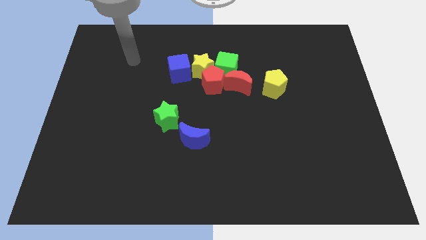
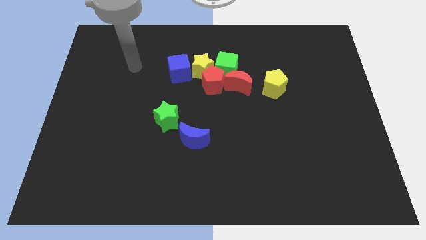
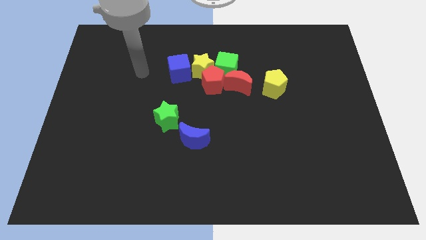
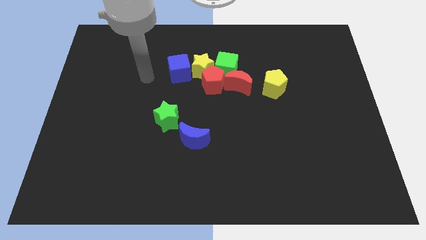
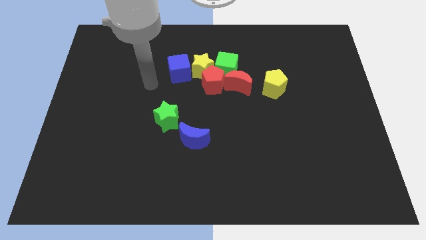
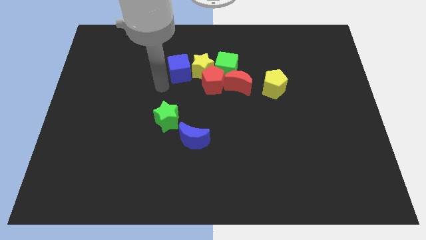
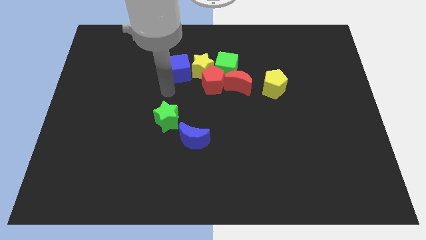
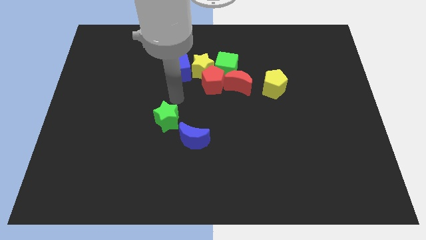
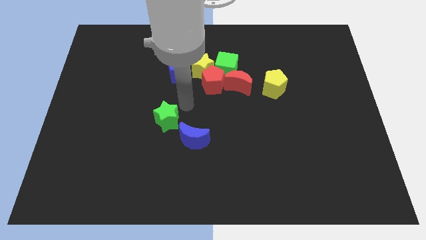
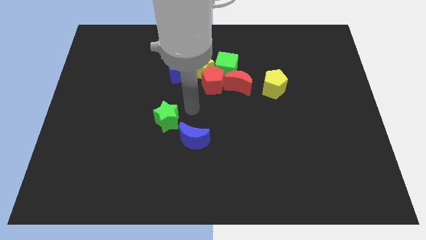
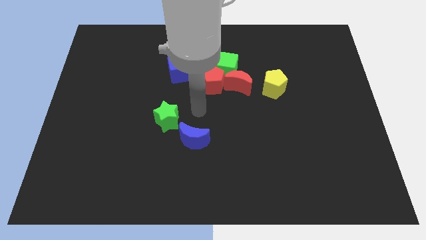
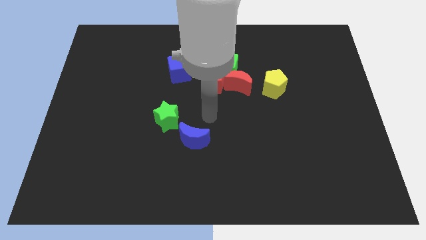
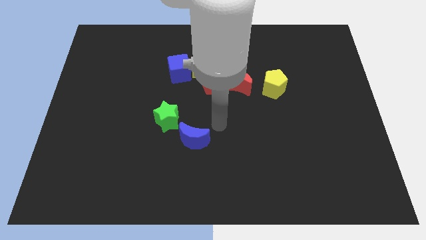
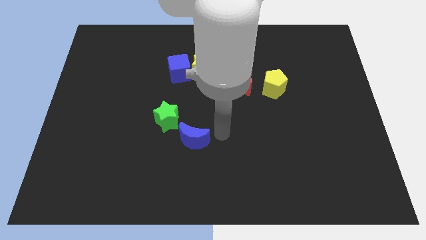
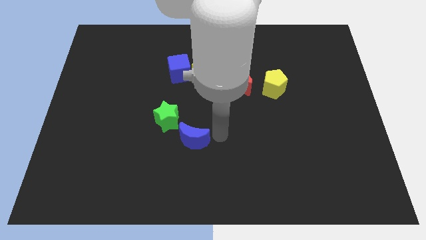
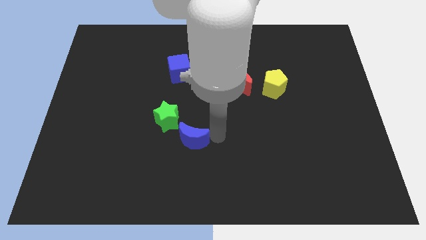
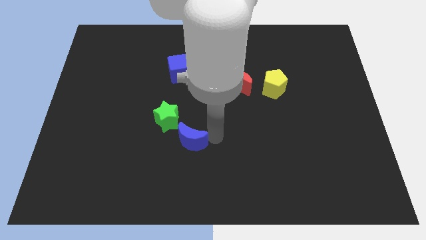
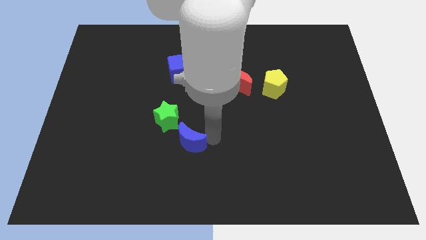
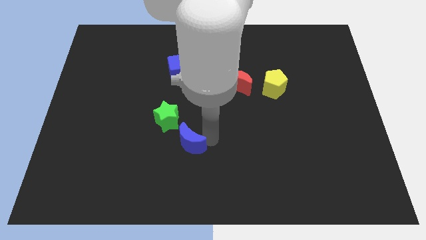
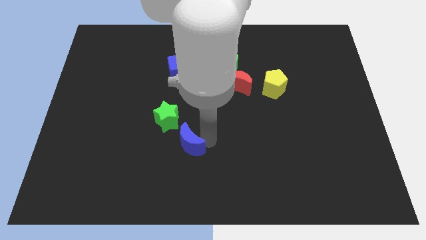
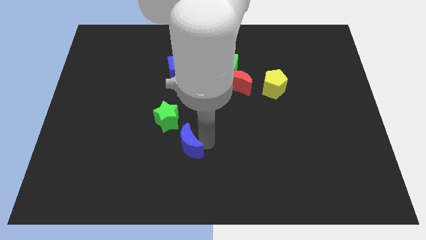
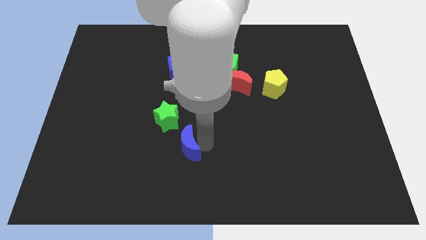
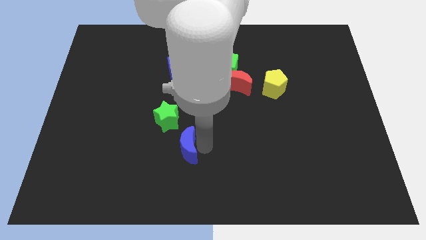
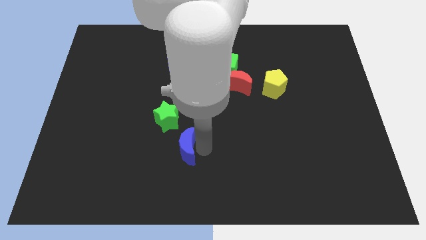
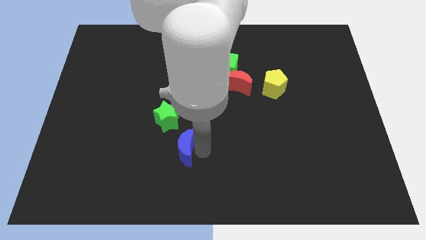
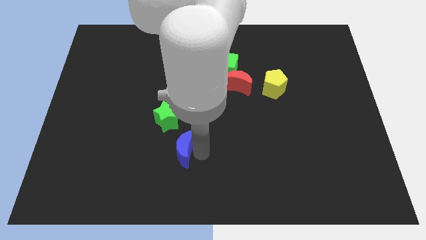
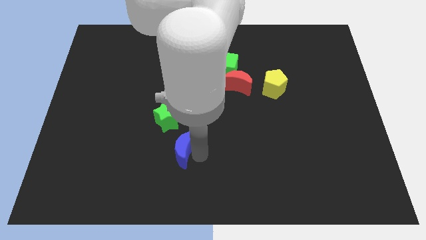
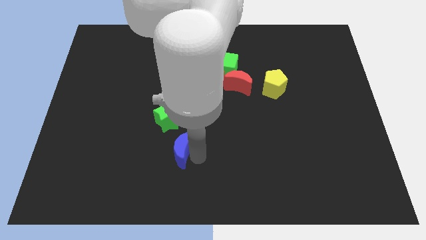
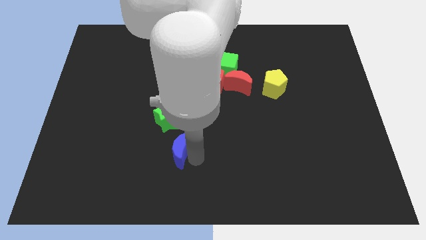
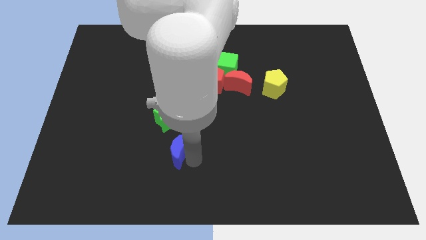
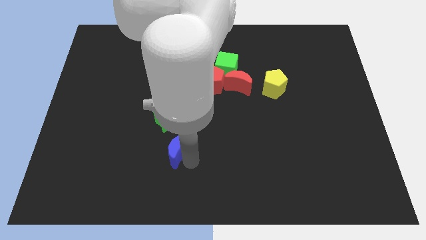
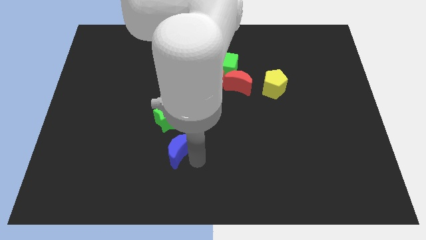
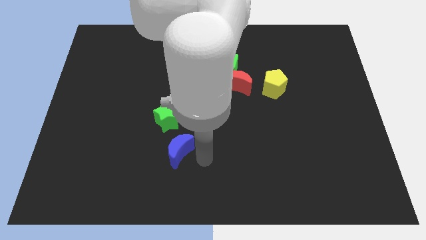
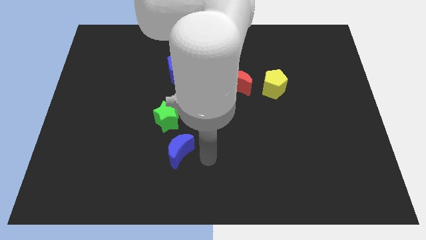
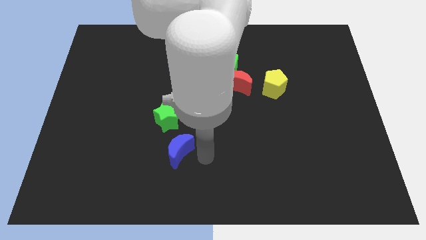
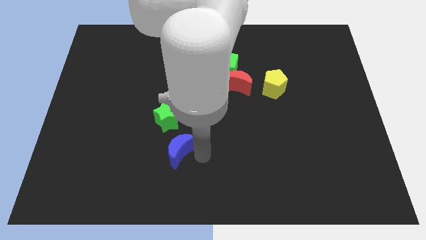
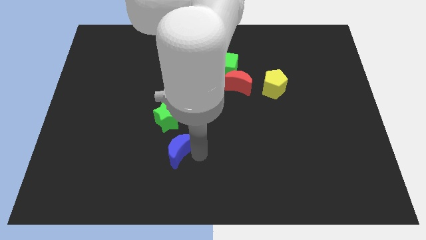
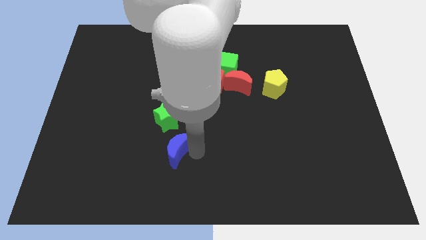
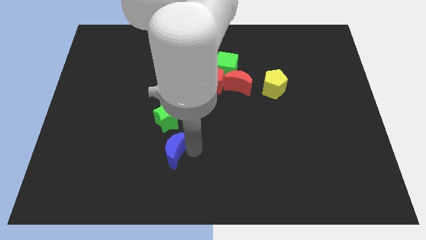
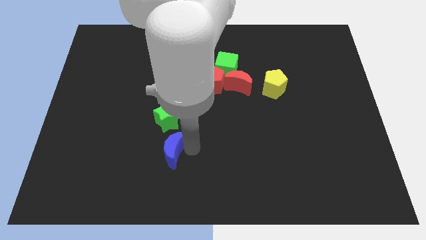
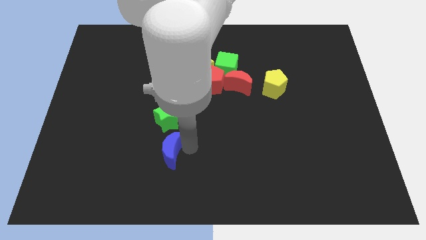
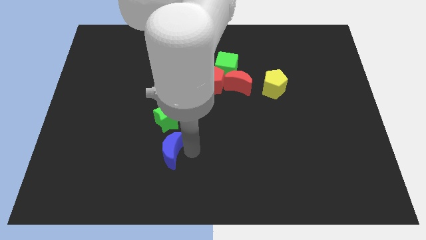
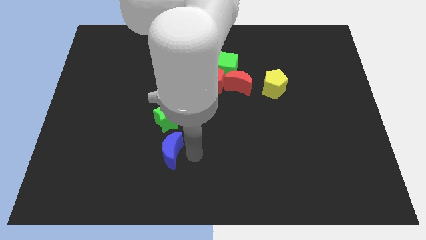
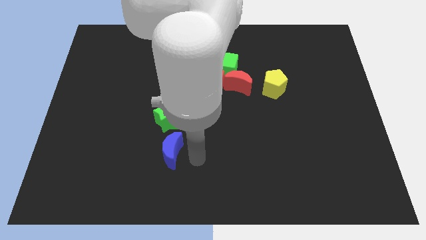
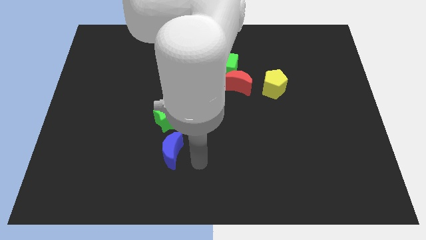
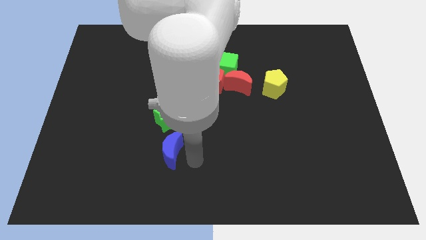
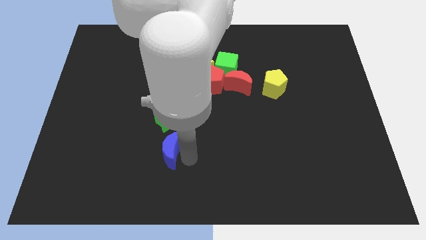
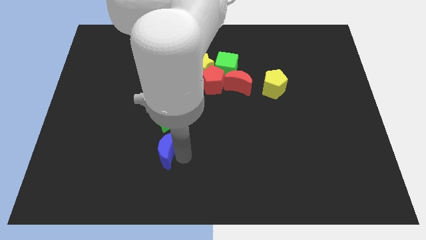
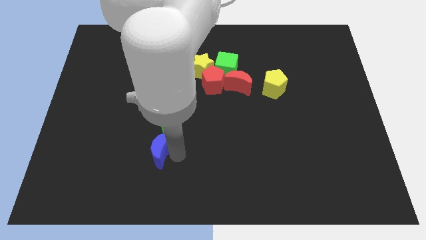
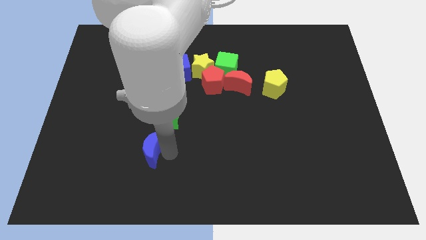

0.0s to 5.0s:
move the blue moon somewhat left

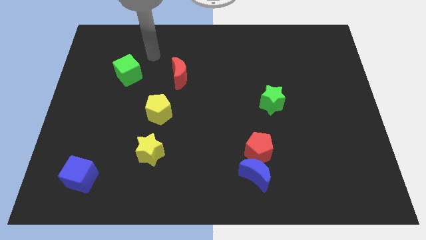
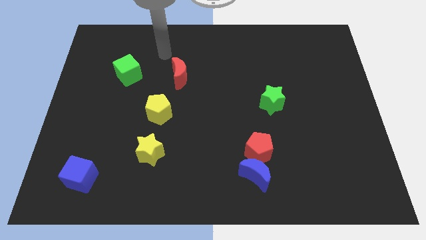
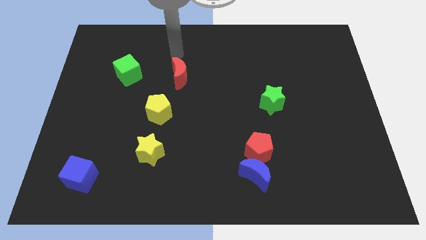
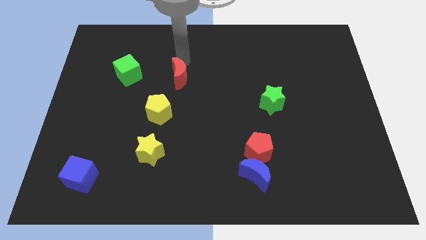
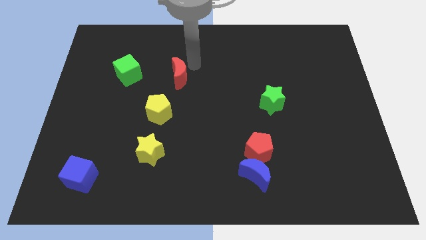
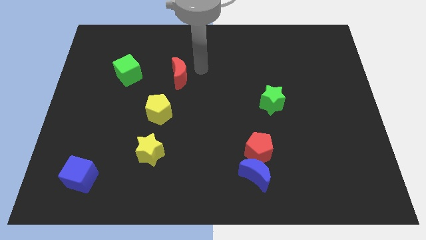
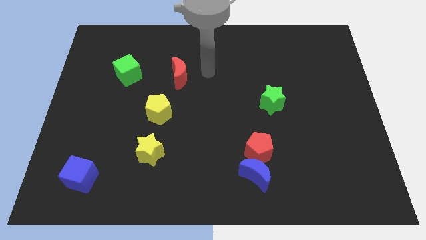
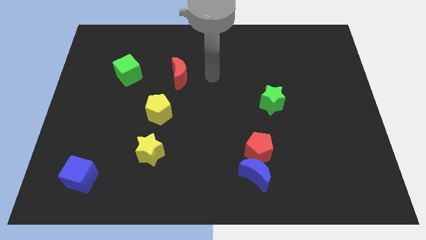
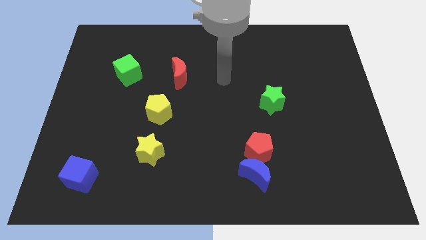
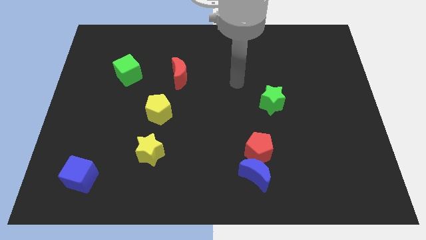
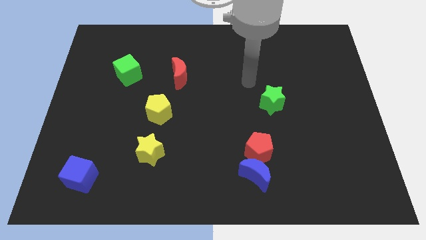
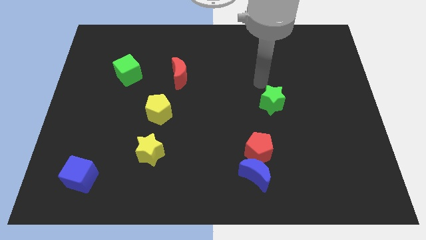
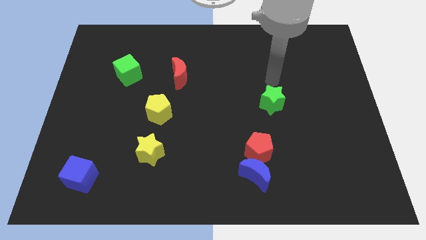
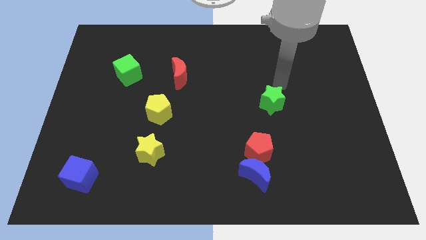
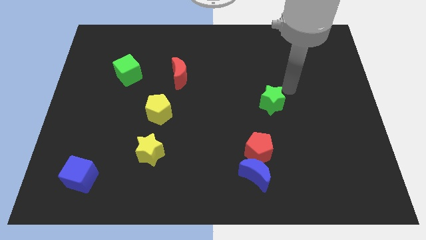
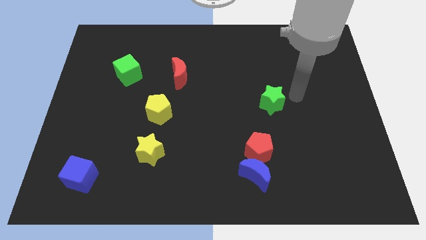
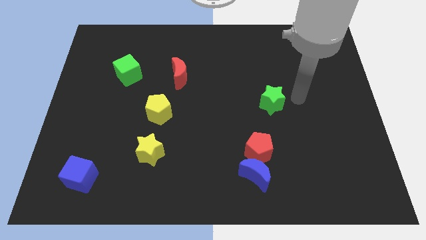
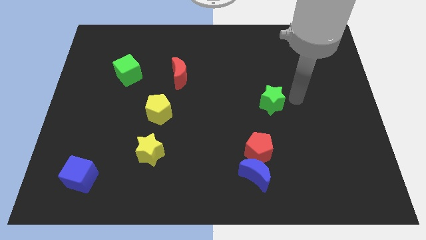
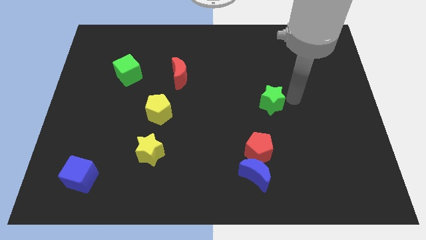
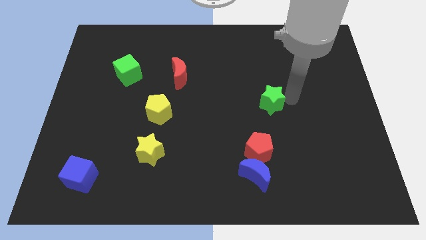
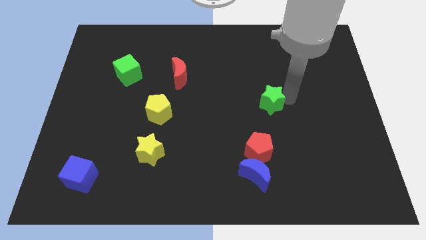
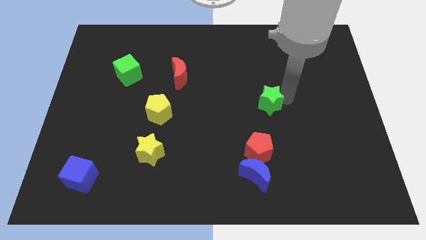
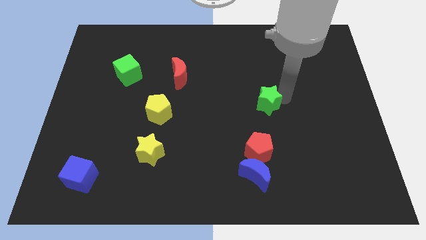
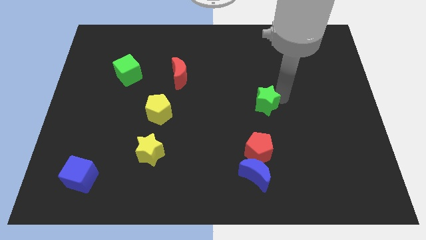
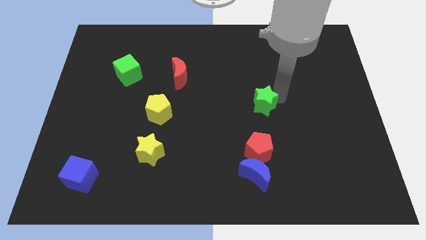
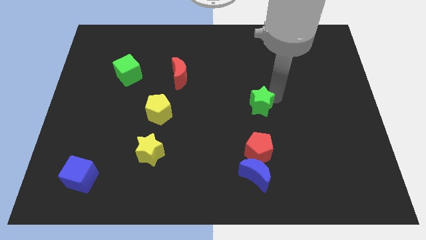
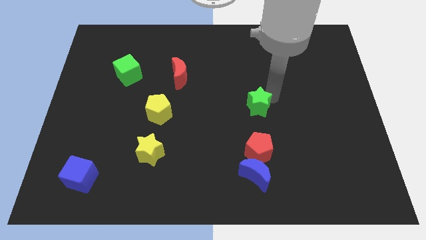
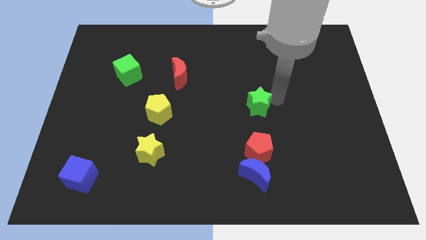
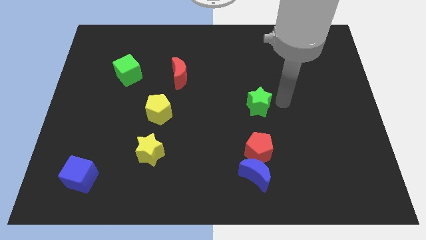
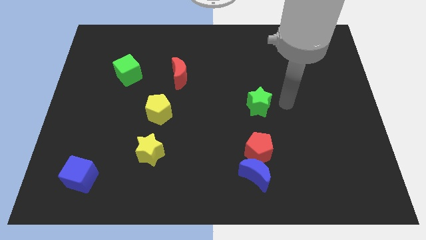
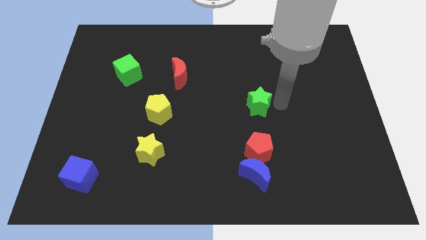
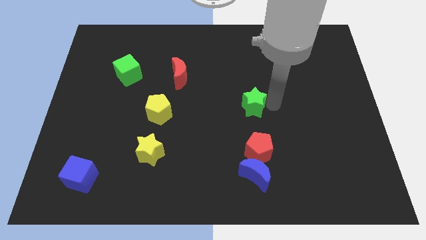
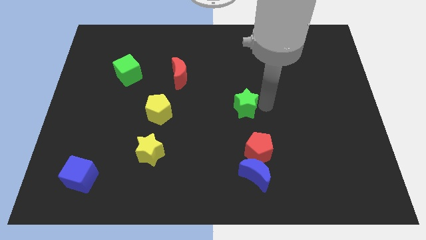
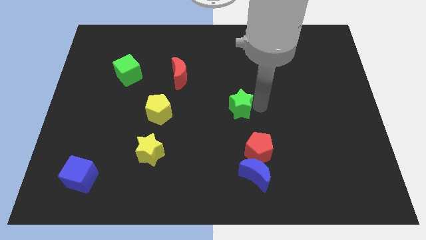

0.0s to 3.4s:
move the green star a bit to the left
